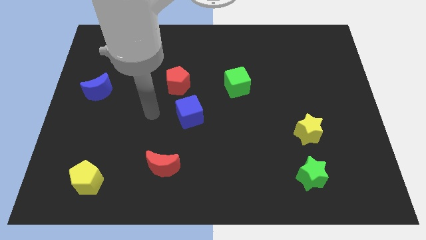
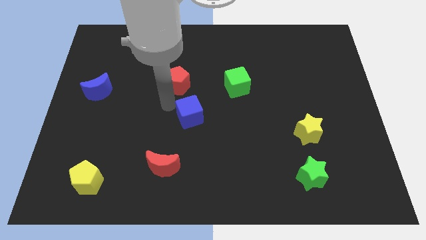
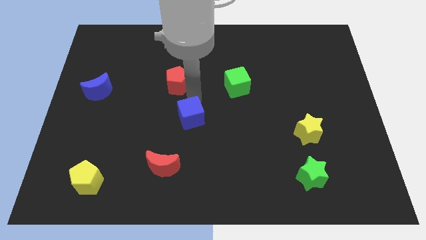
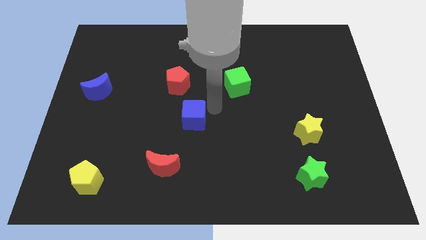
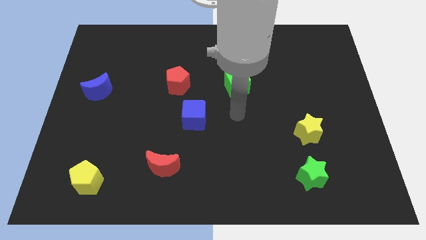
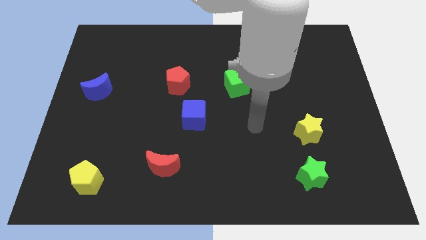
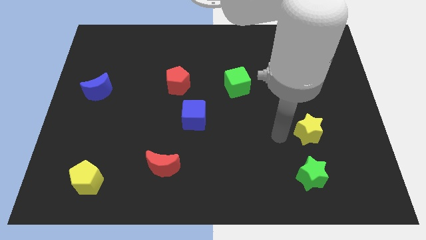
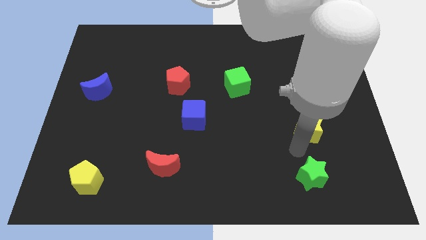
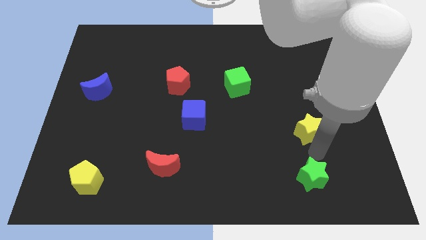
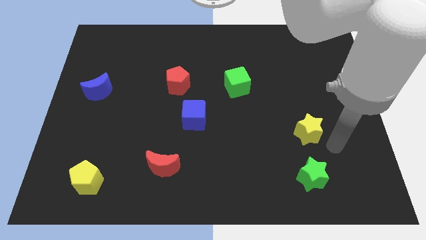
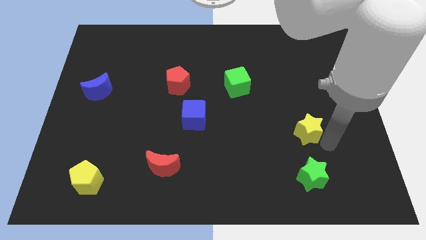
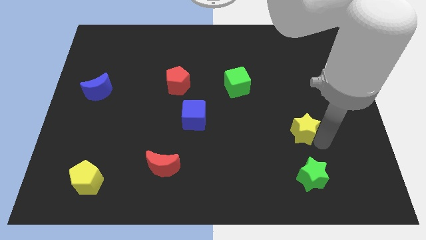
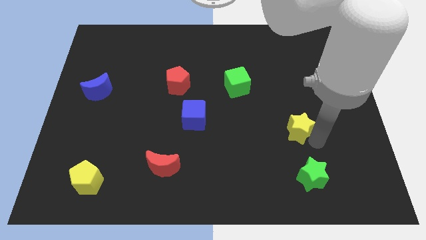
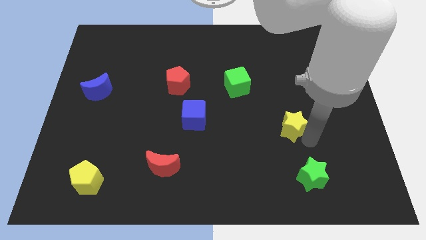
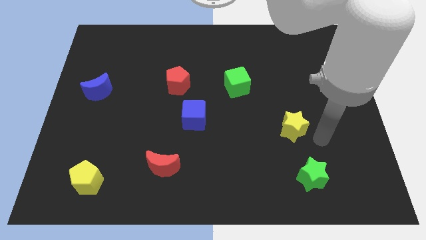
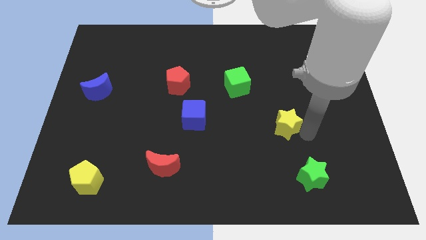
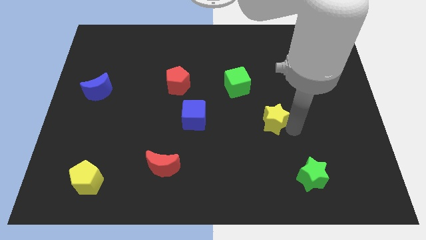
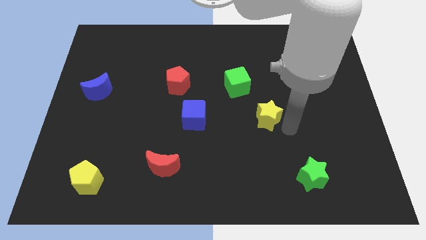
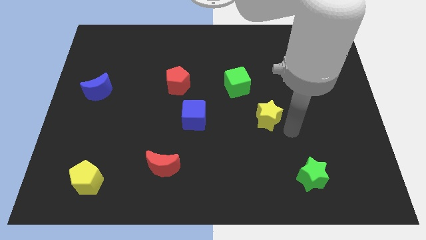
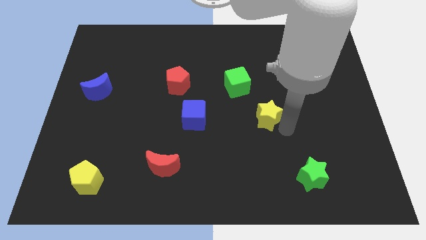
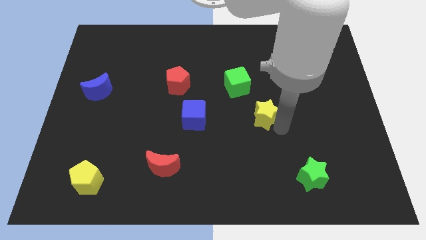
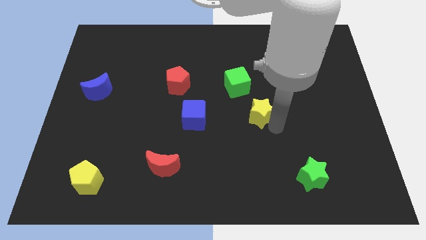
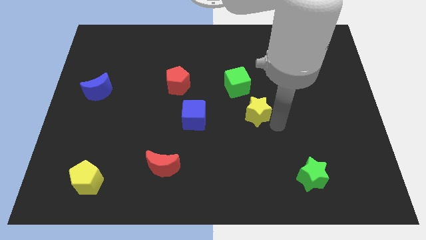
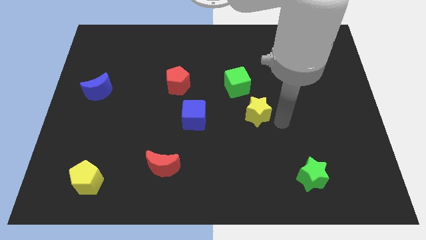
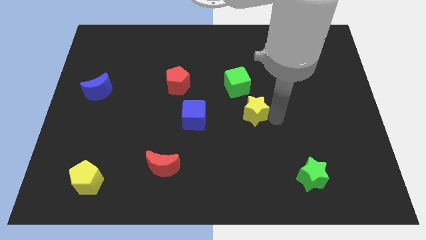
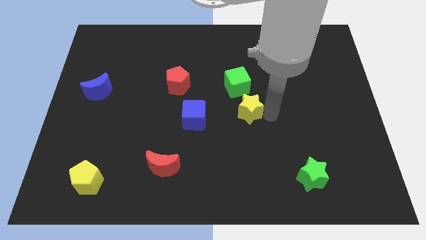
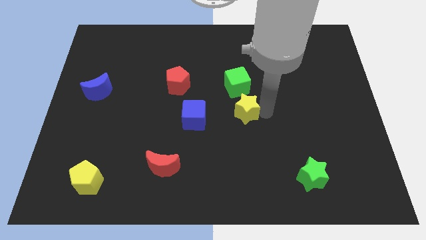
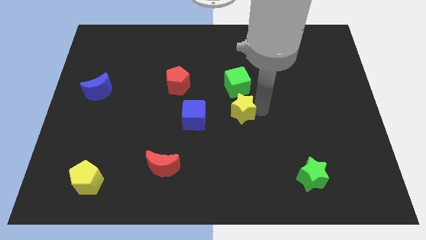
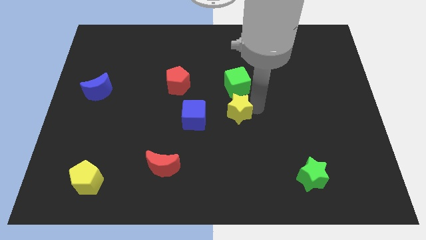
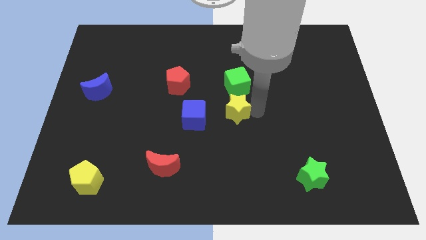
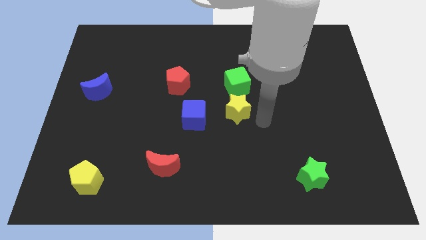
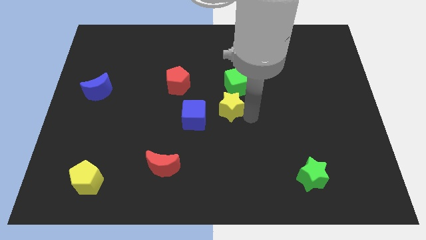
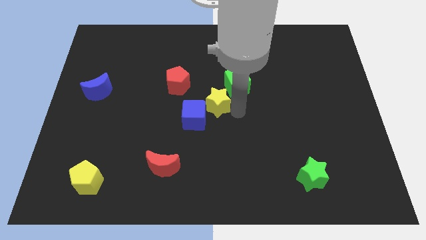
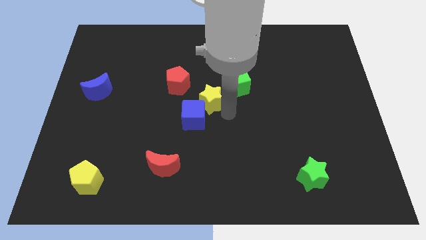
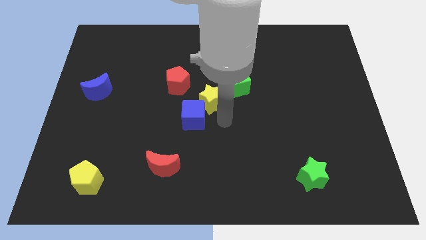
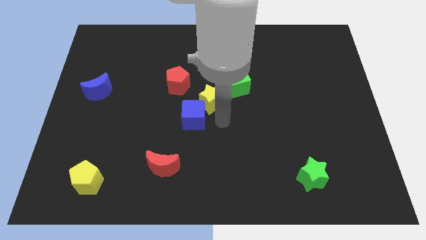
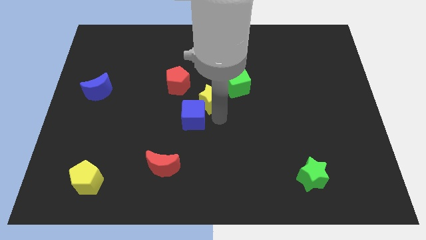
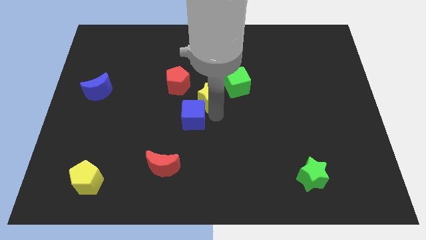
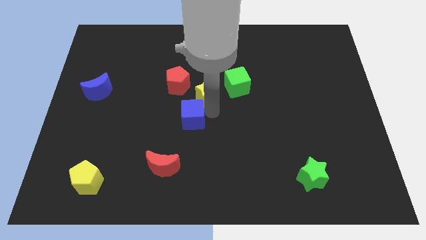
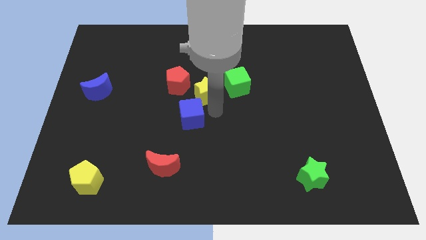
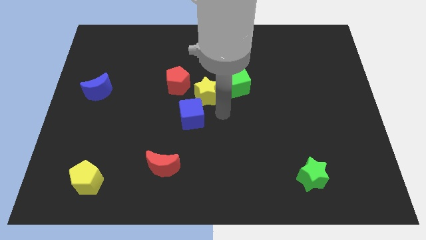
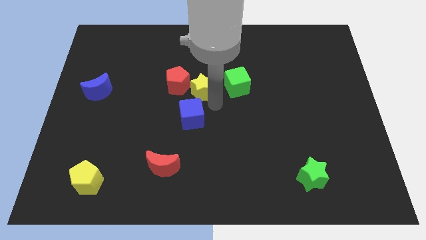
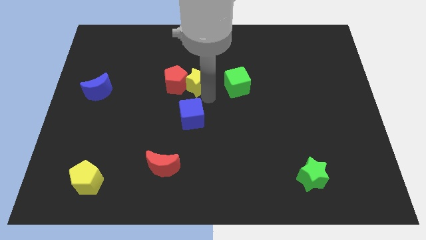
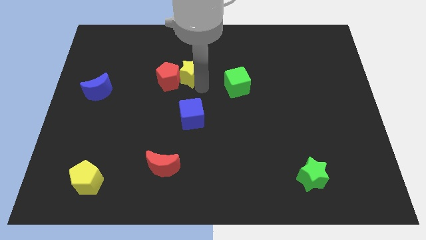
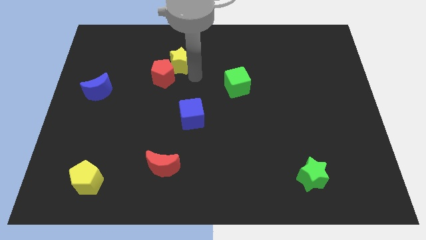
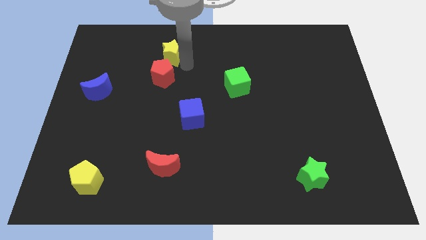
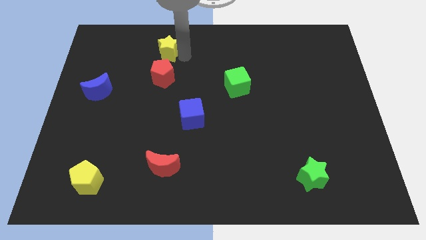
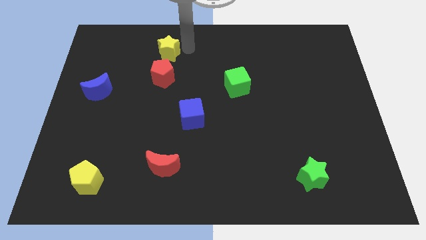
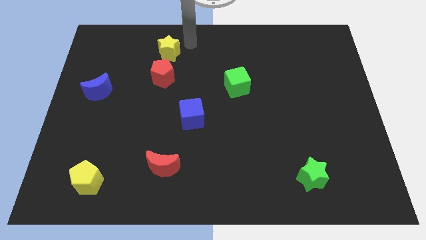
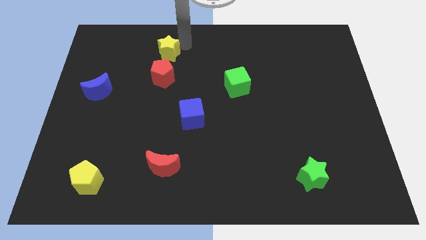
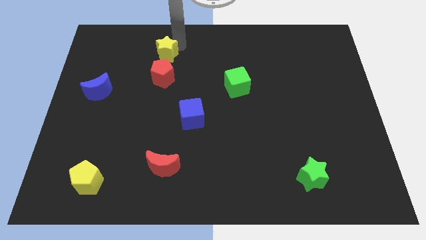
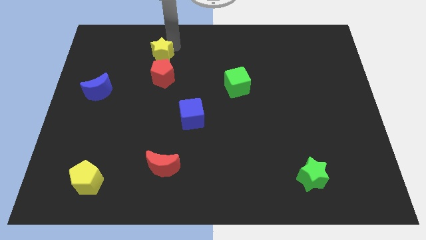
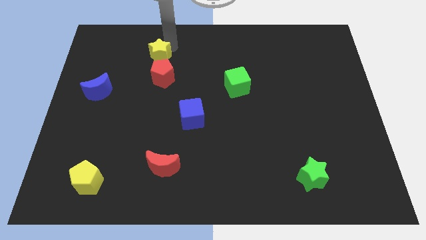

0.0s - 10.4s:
slide the yellow star diagonally up and to the left of the red pentagon

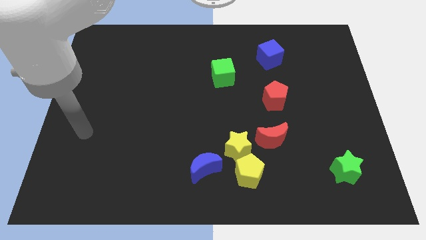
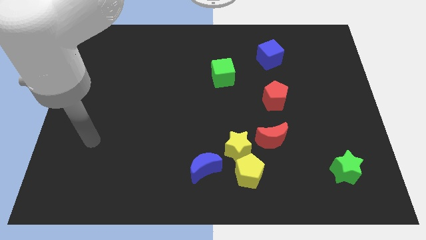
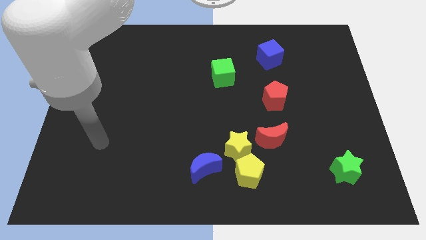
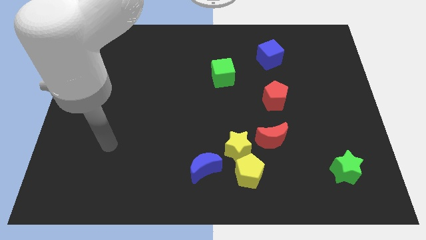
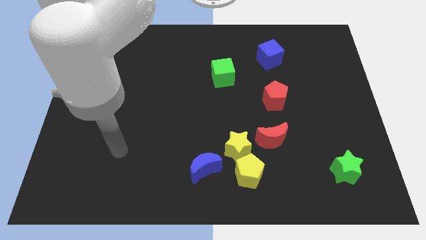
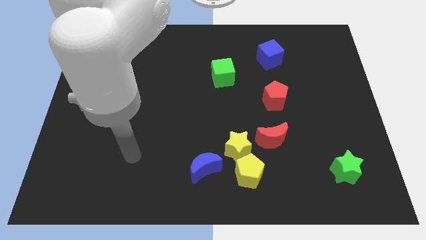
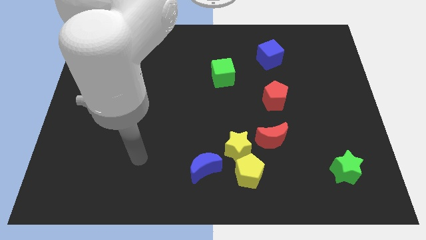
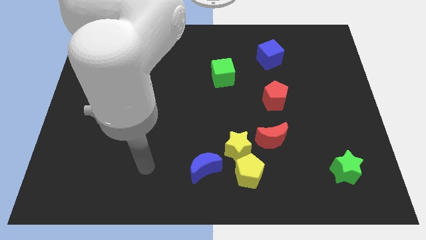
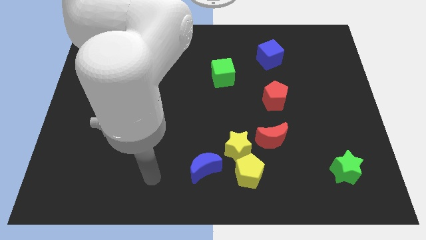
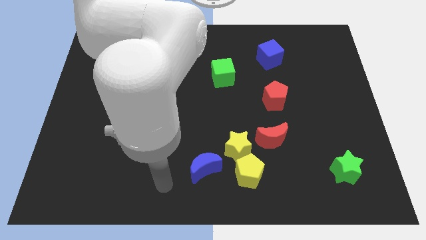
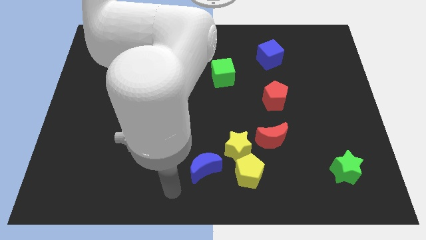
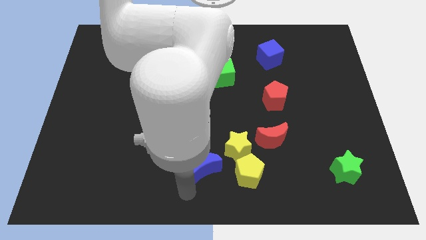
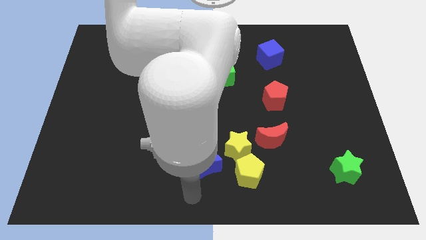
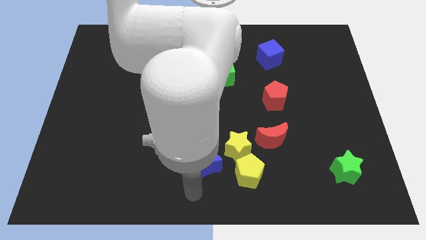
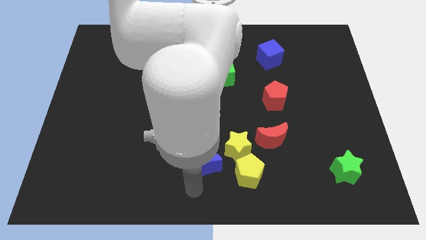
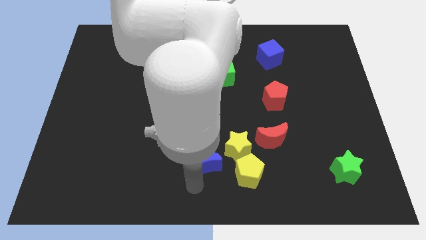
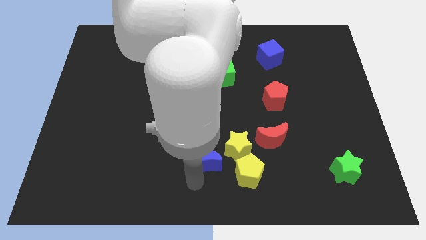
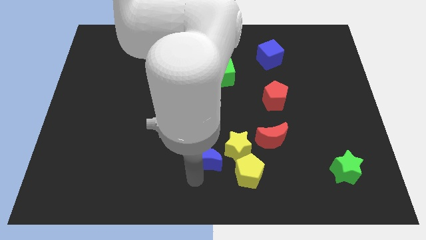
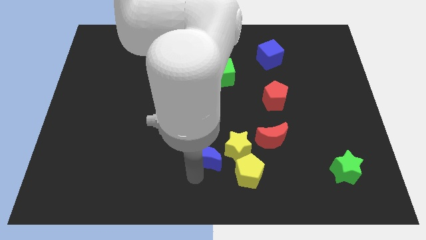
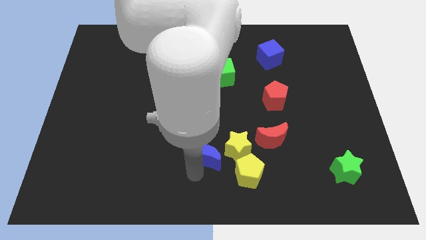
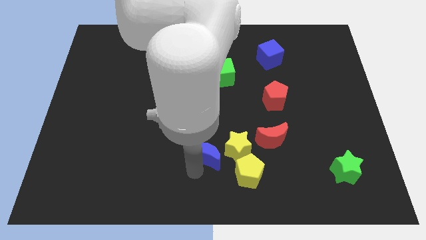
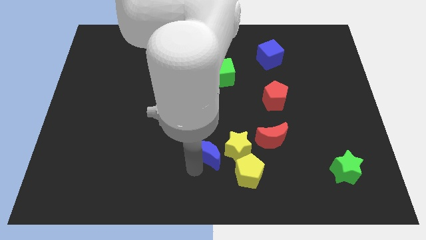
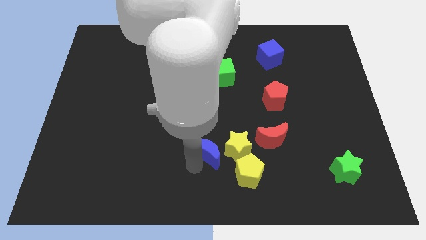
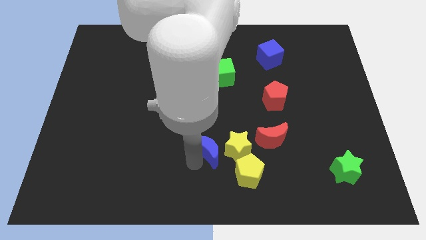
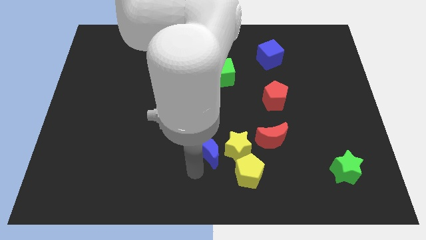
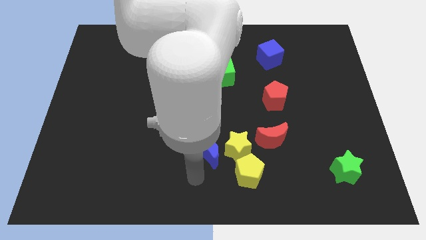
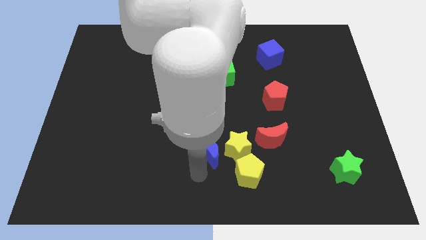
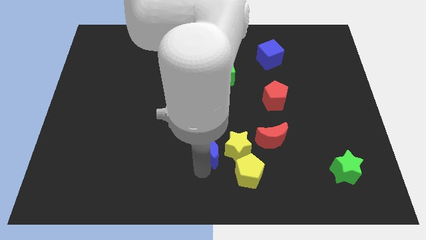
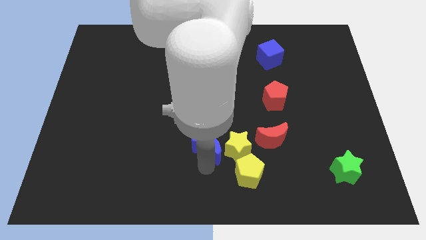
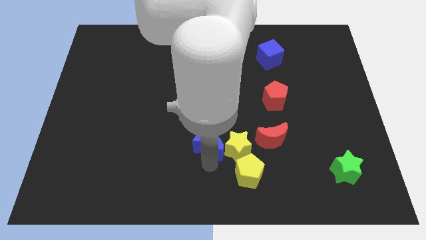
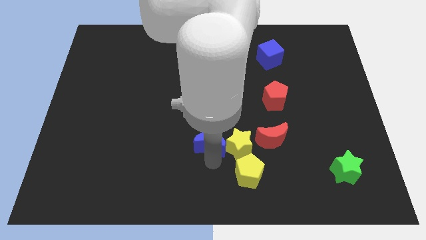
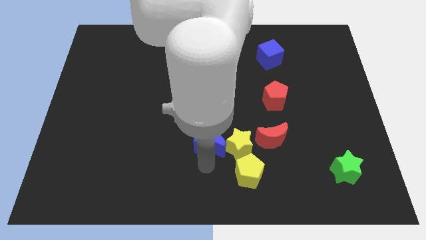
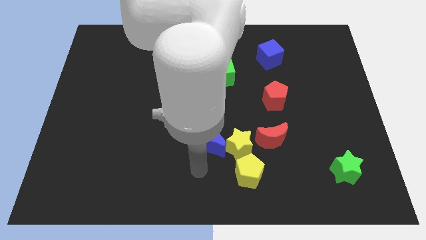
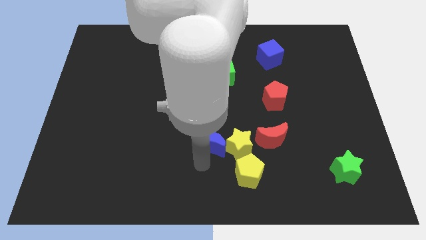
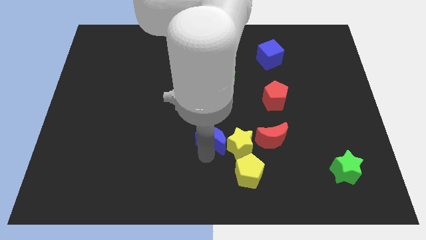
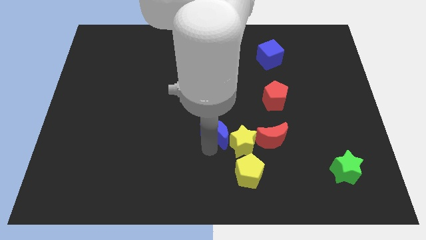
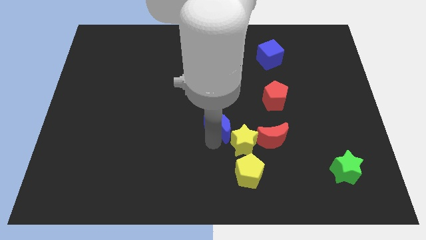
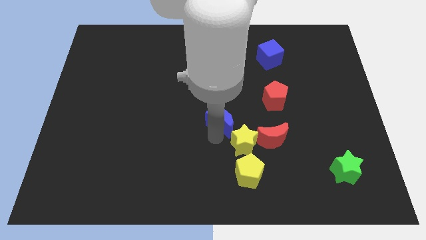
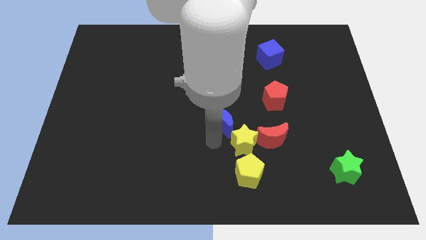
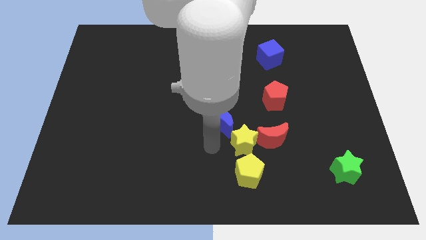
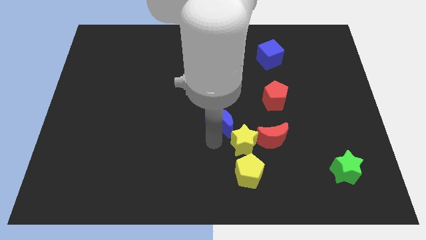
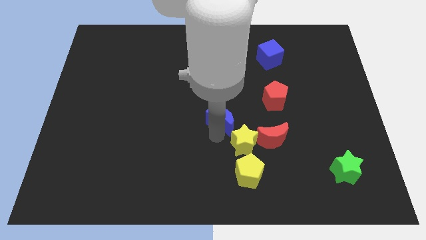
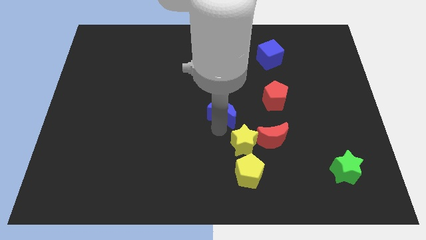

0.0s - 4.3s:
move the blue moon left of the red pentagon
